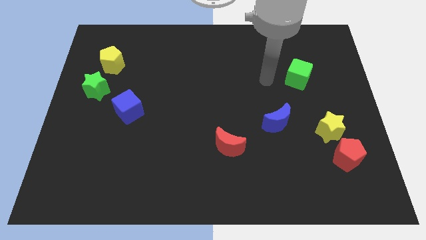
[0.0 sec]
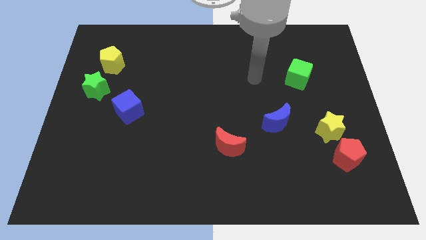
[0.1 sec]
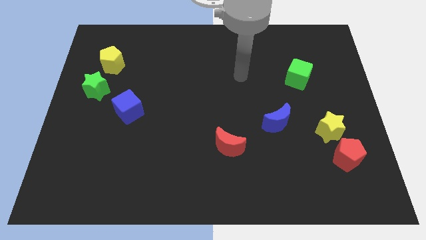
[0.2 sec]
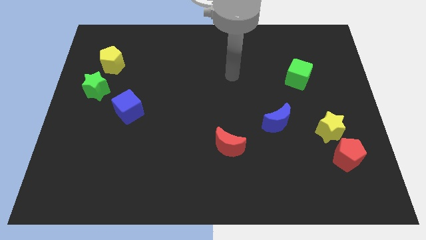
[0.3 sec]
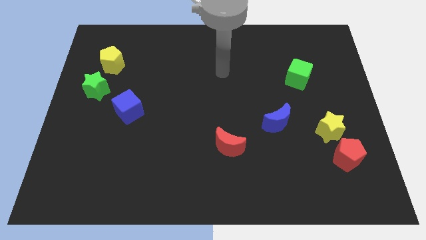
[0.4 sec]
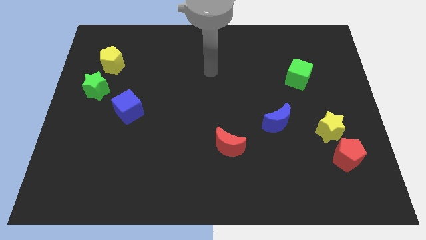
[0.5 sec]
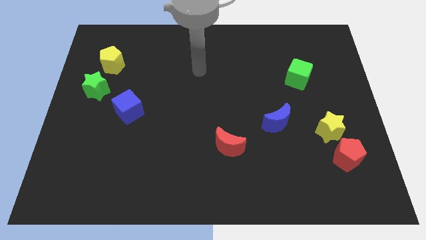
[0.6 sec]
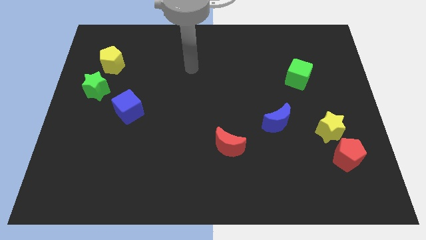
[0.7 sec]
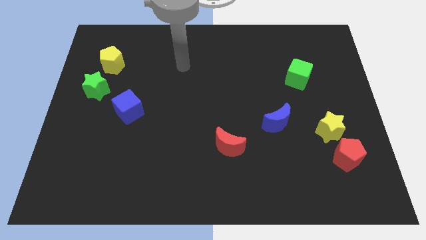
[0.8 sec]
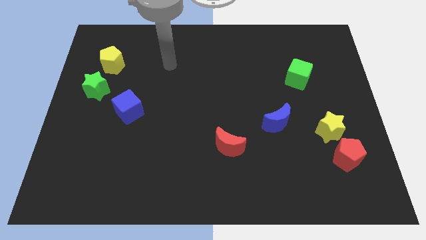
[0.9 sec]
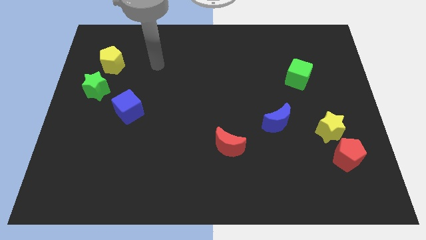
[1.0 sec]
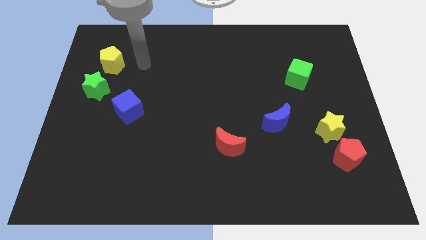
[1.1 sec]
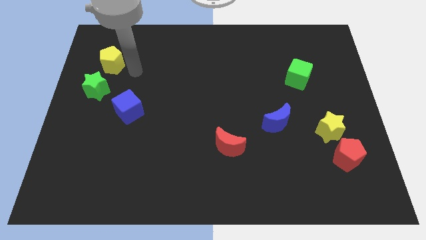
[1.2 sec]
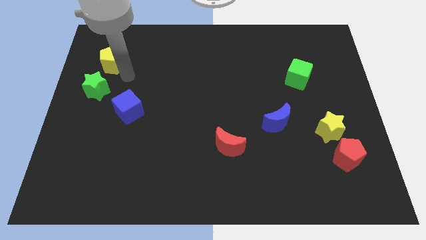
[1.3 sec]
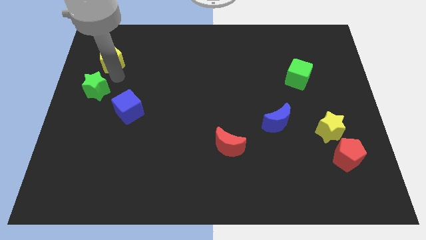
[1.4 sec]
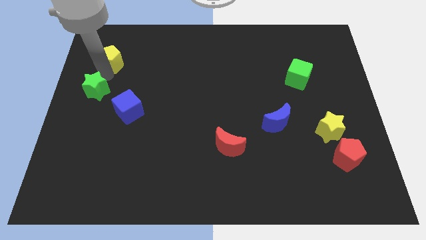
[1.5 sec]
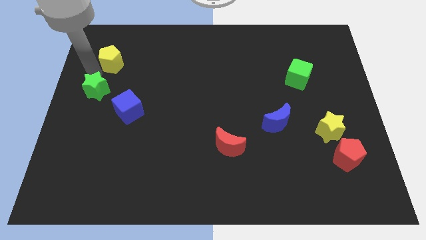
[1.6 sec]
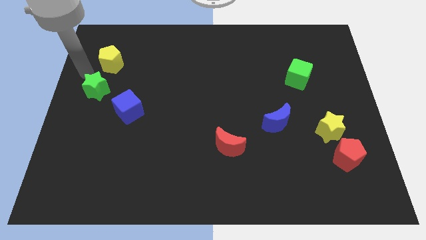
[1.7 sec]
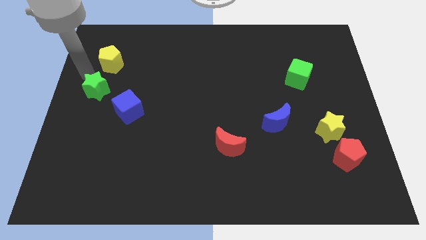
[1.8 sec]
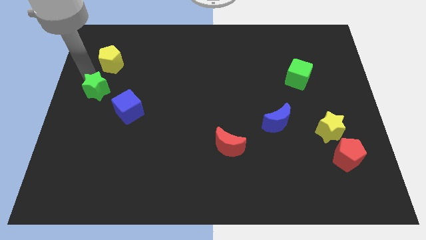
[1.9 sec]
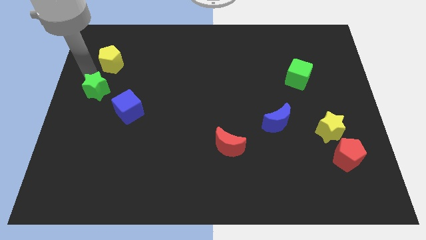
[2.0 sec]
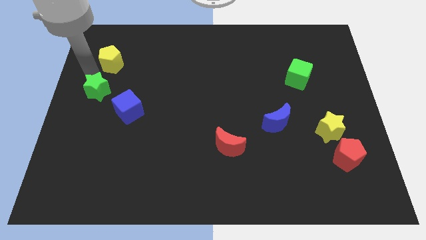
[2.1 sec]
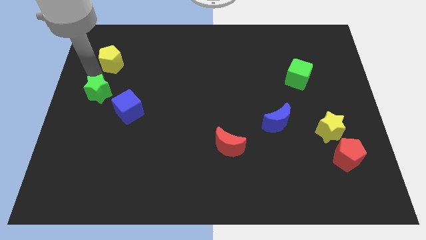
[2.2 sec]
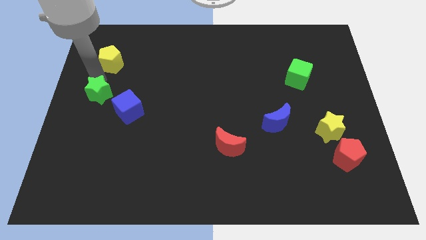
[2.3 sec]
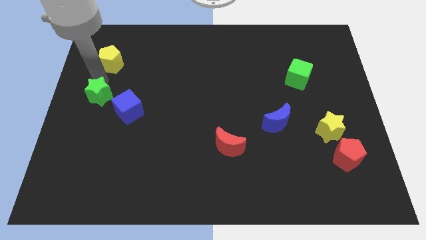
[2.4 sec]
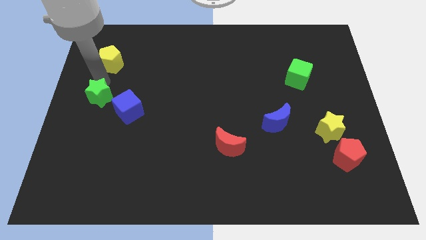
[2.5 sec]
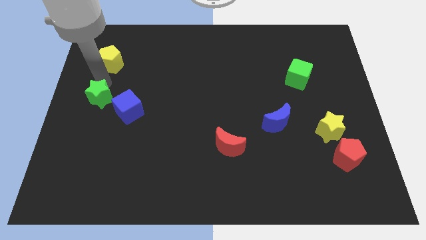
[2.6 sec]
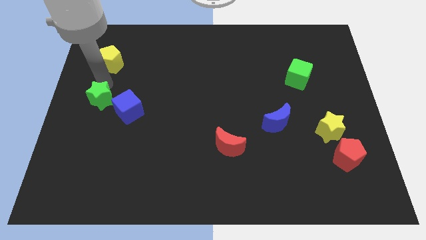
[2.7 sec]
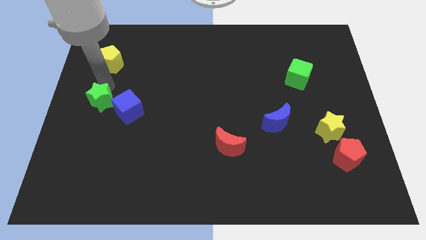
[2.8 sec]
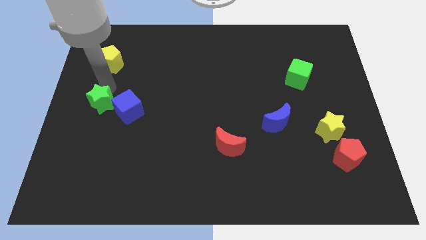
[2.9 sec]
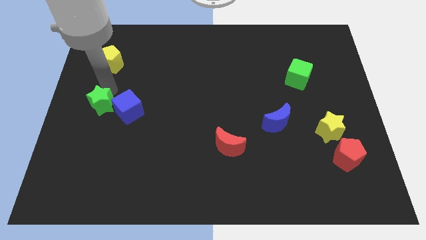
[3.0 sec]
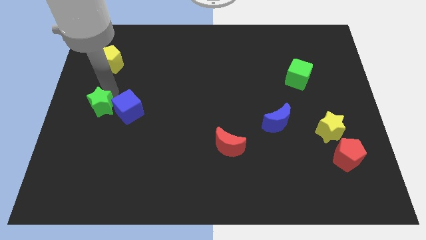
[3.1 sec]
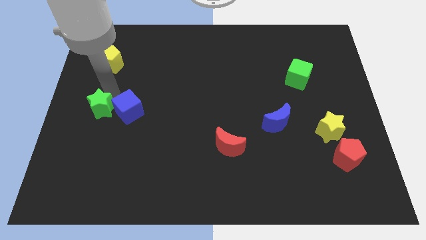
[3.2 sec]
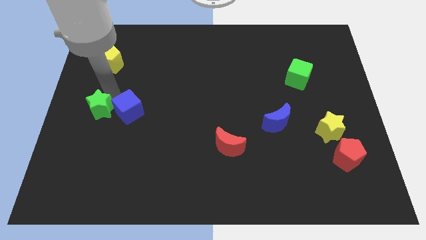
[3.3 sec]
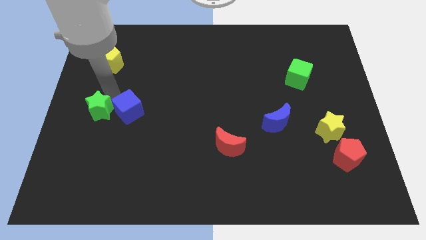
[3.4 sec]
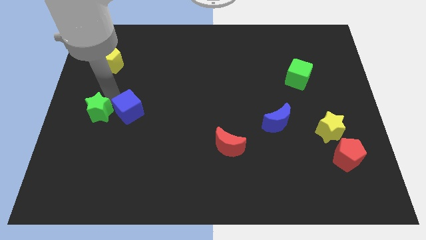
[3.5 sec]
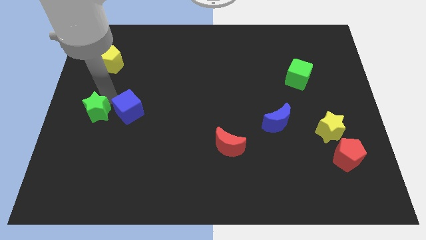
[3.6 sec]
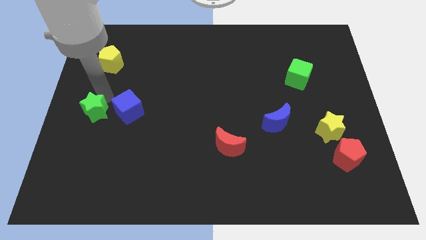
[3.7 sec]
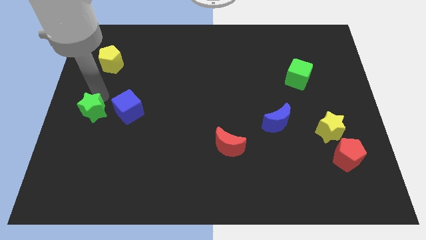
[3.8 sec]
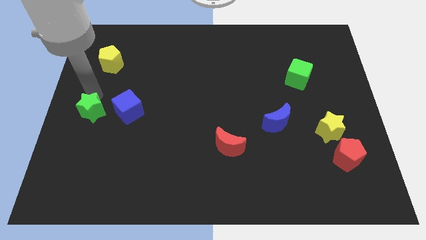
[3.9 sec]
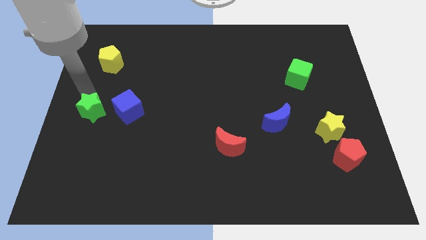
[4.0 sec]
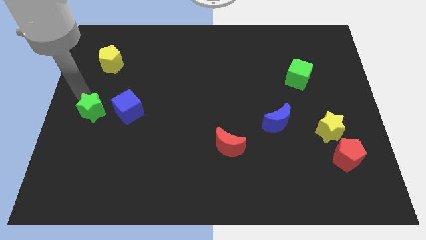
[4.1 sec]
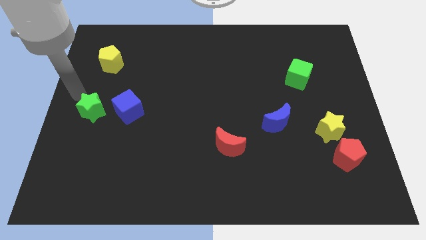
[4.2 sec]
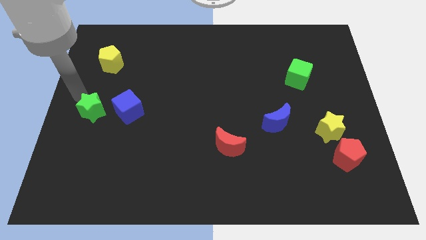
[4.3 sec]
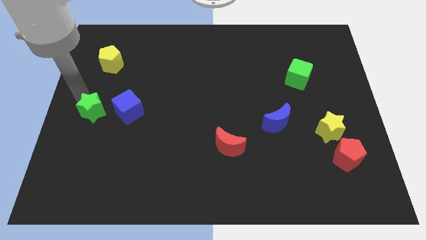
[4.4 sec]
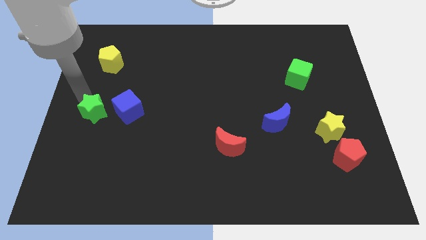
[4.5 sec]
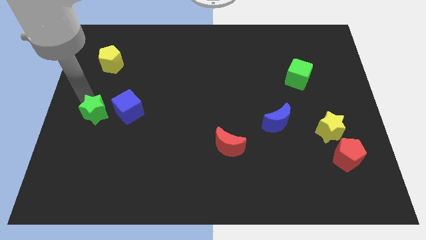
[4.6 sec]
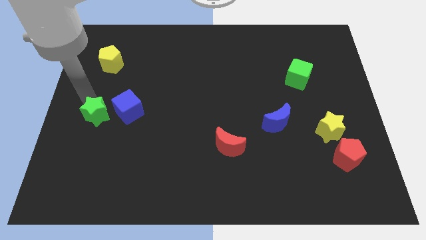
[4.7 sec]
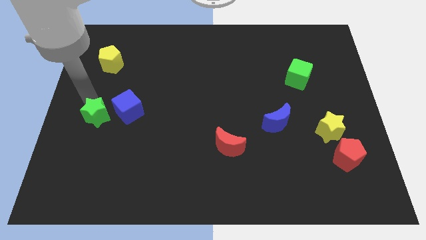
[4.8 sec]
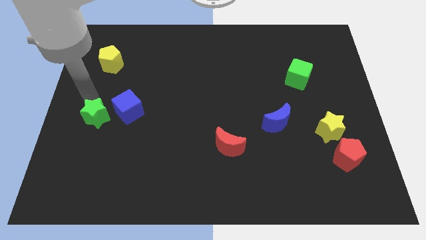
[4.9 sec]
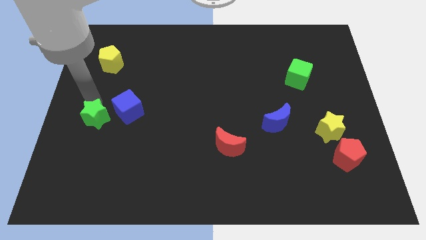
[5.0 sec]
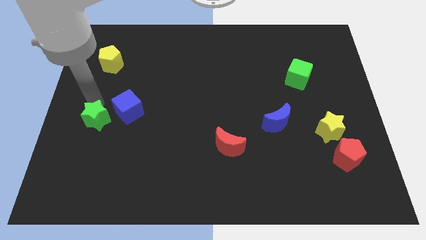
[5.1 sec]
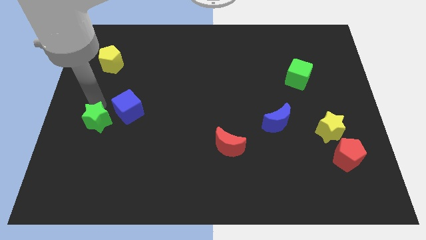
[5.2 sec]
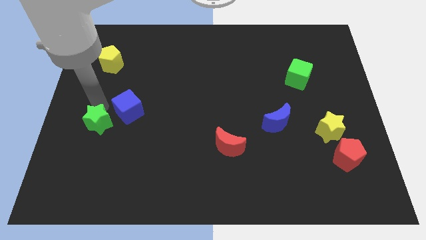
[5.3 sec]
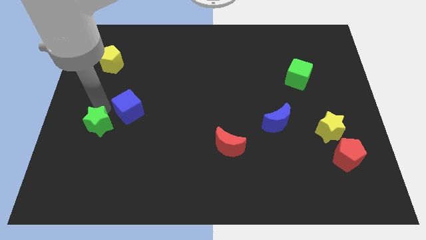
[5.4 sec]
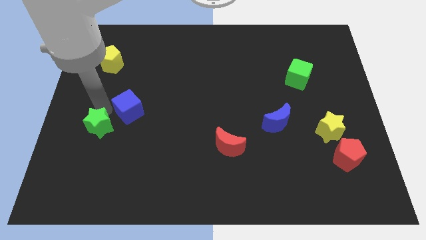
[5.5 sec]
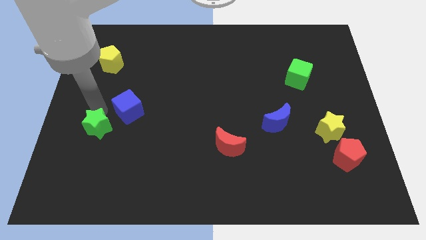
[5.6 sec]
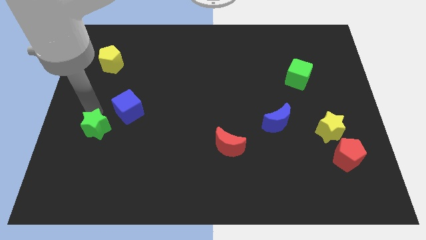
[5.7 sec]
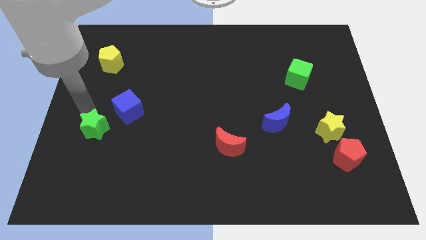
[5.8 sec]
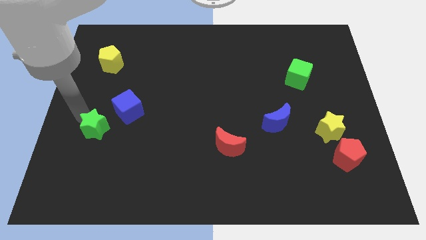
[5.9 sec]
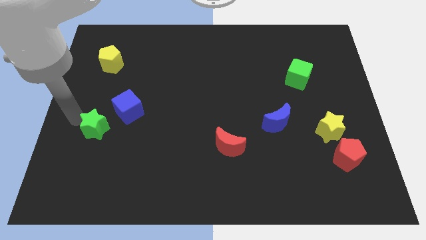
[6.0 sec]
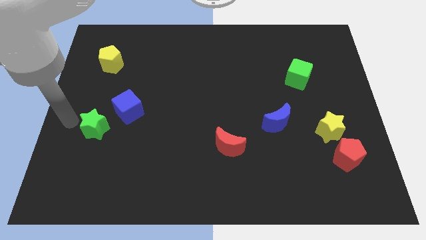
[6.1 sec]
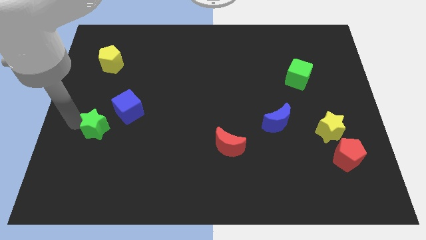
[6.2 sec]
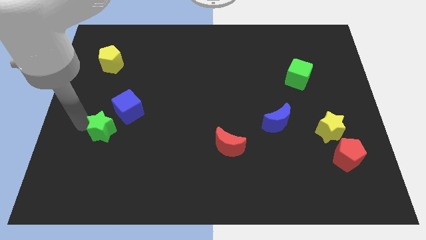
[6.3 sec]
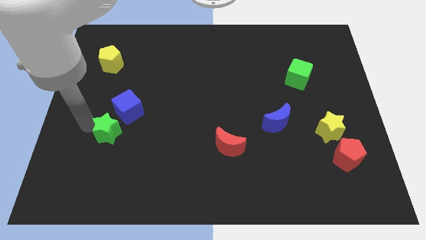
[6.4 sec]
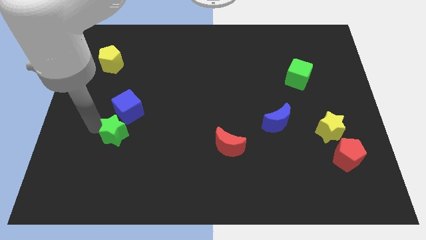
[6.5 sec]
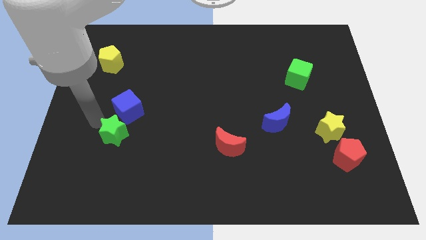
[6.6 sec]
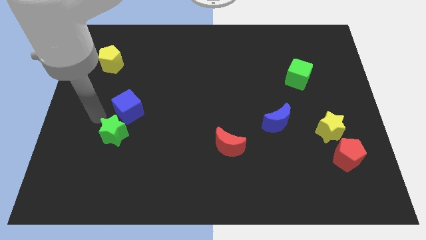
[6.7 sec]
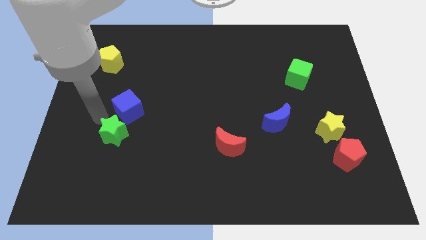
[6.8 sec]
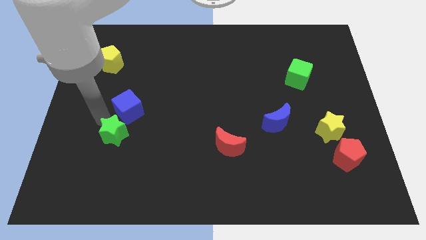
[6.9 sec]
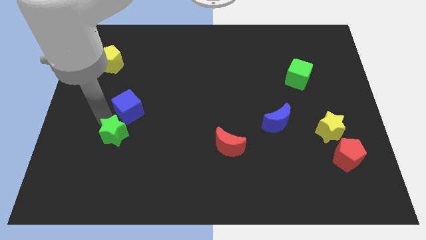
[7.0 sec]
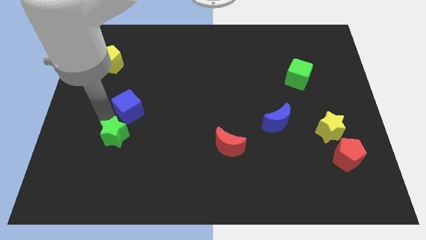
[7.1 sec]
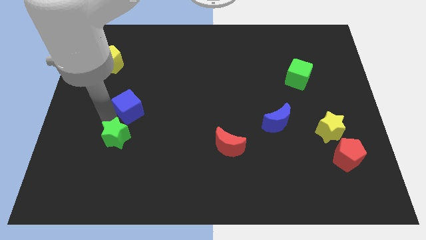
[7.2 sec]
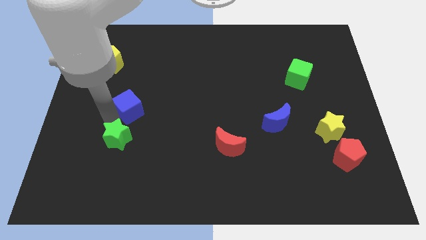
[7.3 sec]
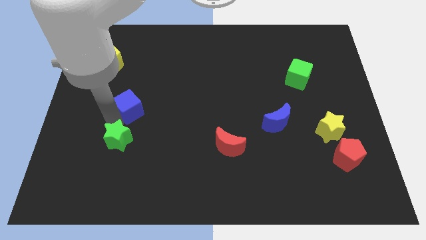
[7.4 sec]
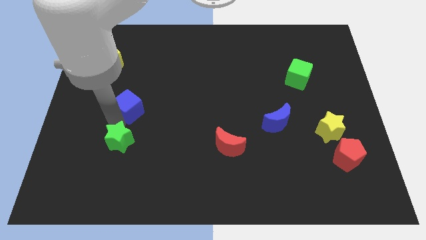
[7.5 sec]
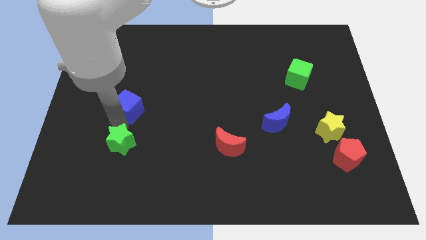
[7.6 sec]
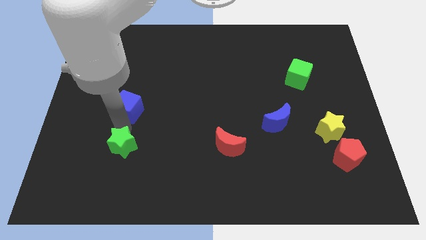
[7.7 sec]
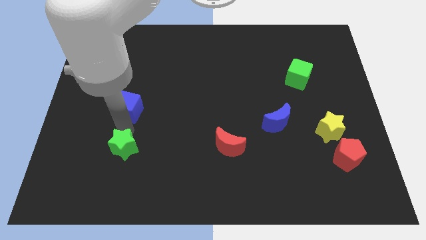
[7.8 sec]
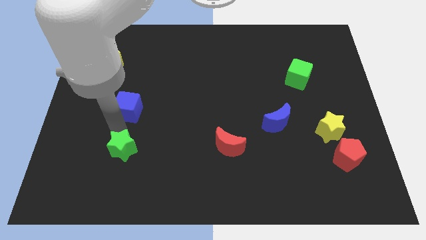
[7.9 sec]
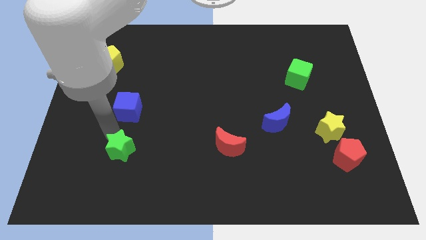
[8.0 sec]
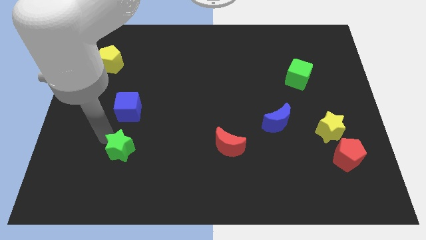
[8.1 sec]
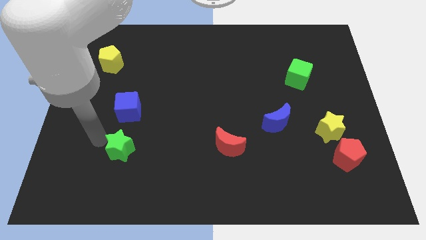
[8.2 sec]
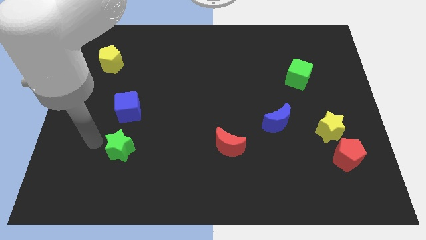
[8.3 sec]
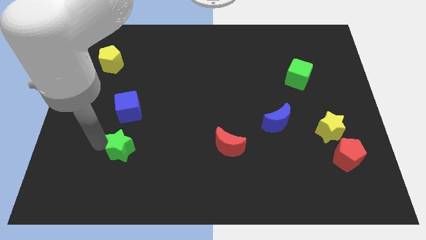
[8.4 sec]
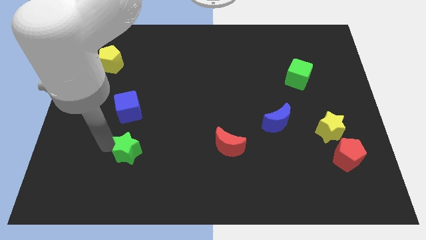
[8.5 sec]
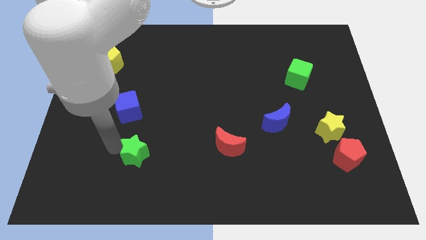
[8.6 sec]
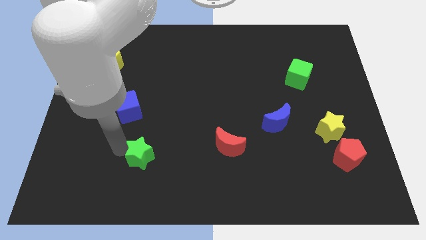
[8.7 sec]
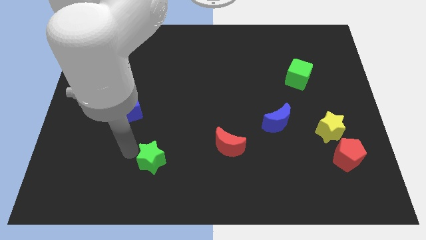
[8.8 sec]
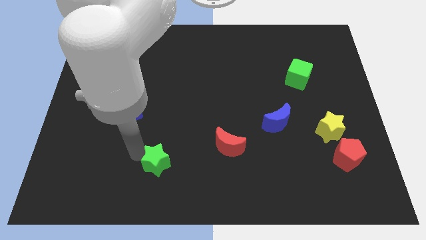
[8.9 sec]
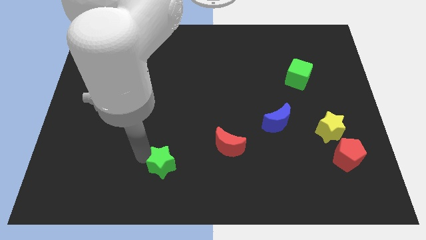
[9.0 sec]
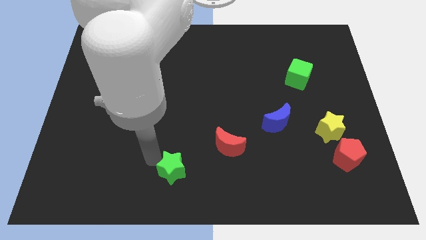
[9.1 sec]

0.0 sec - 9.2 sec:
put the green star to the bottom
